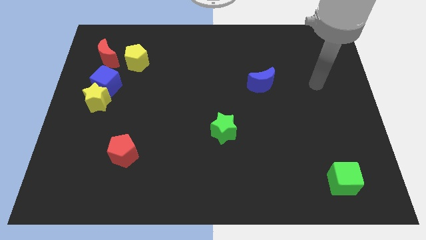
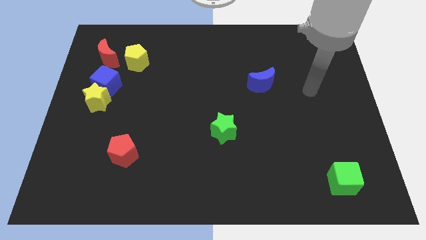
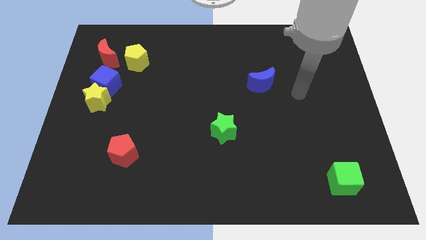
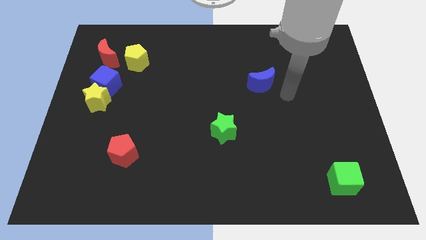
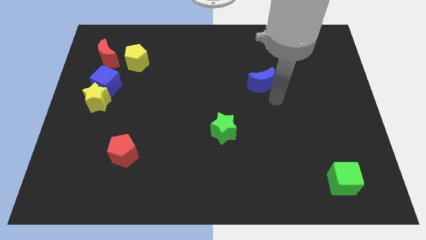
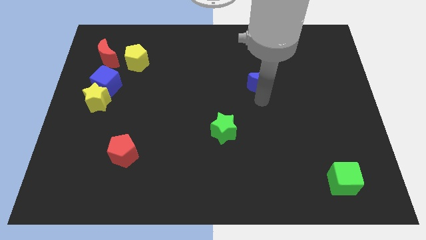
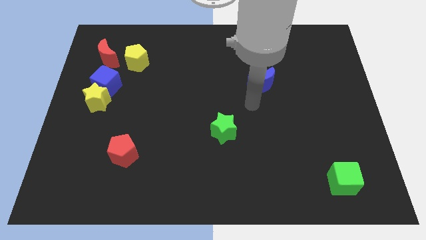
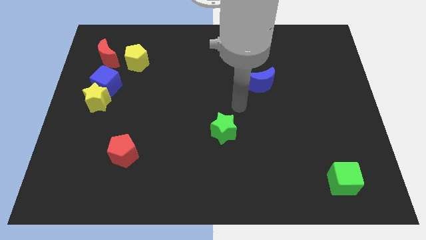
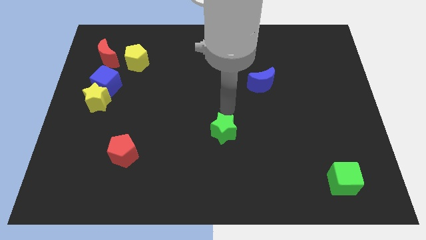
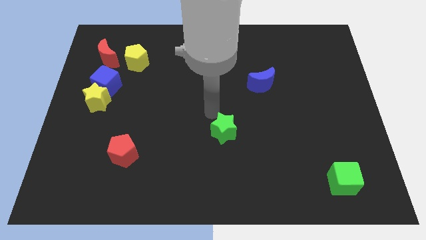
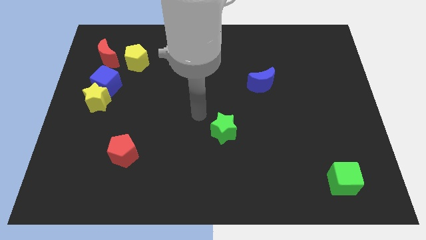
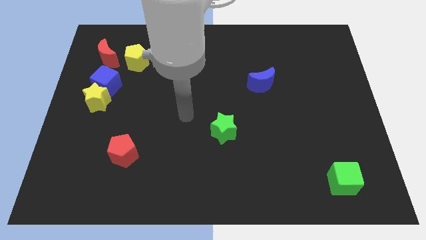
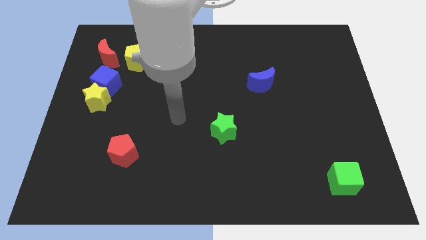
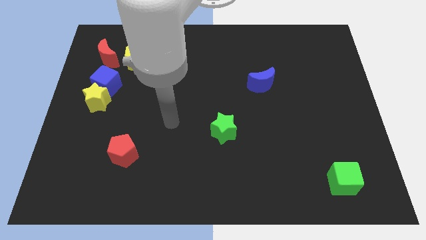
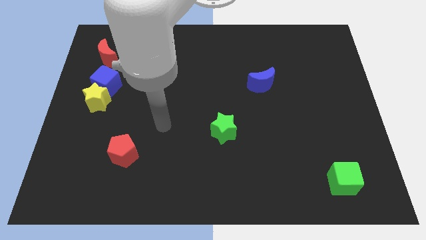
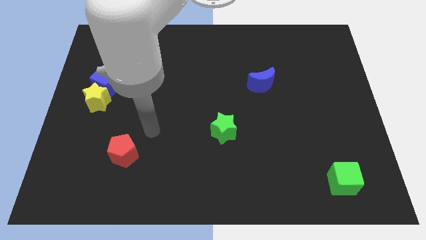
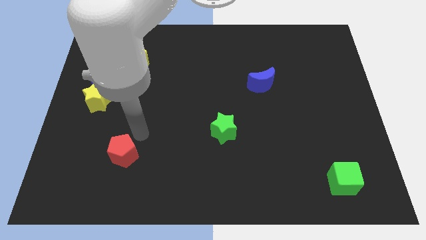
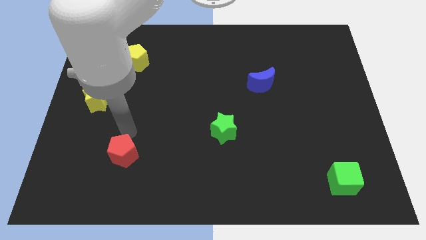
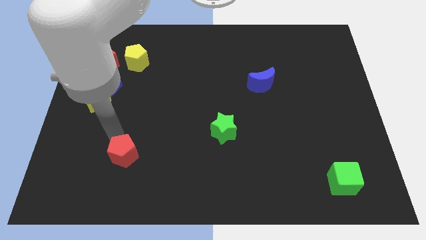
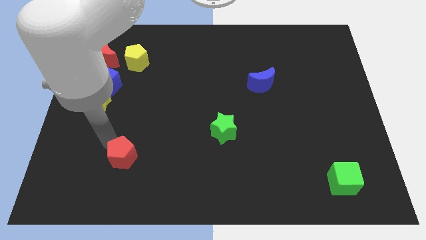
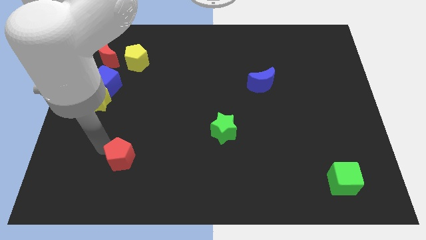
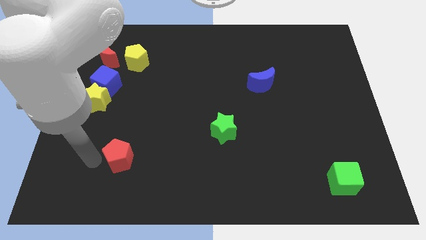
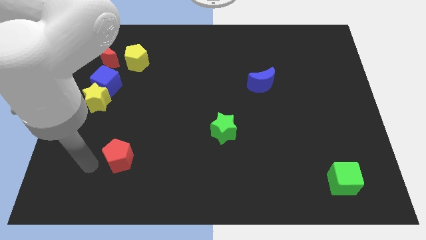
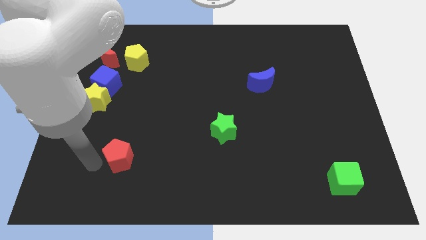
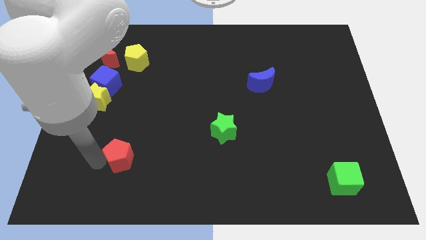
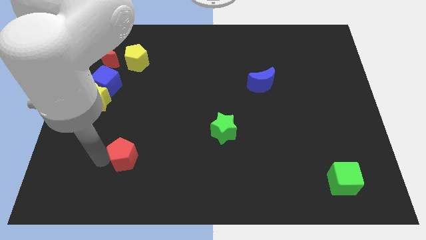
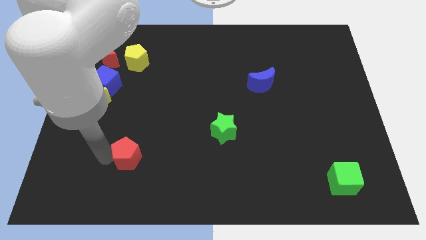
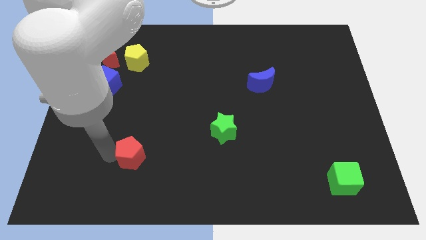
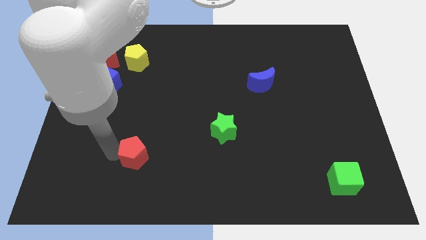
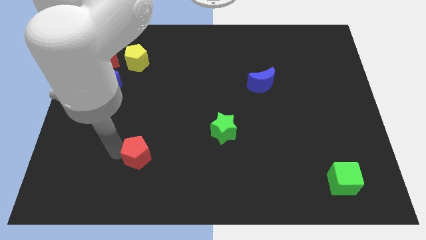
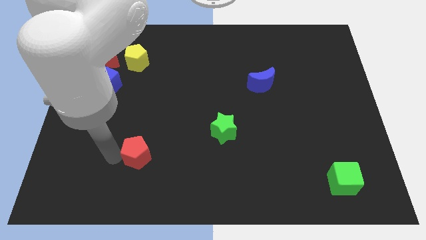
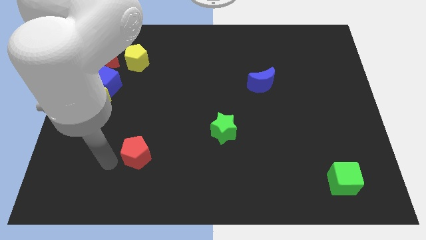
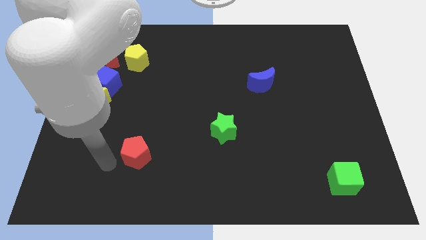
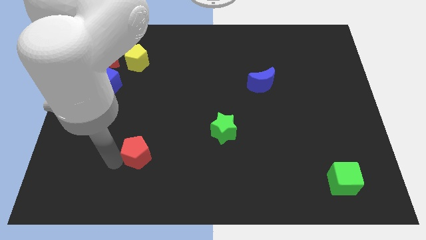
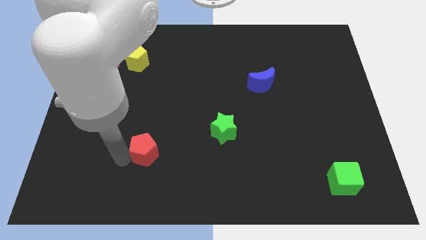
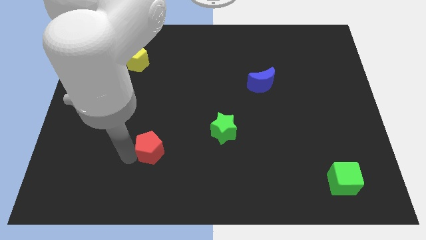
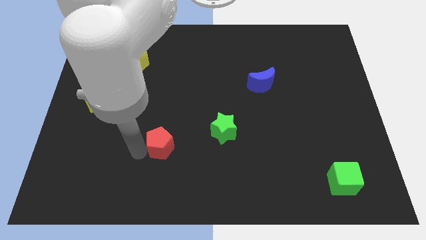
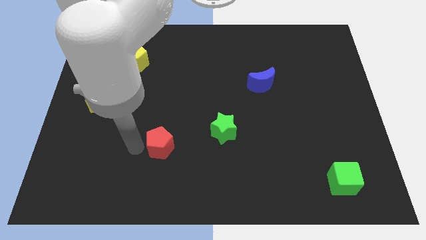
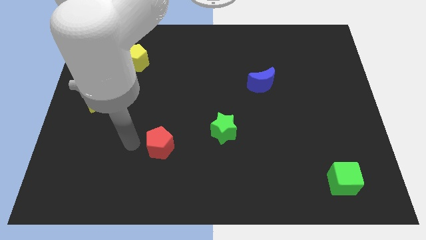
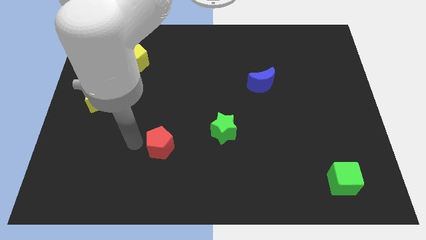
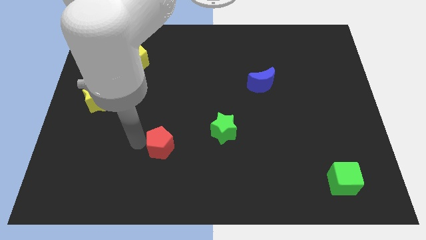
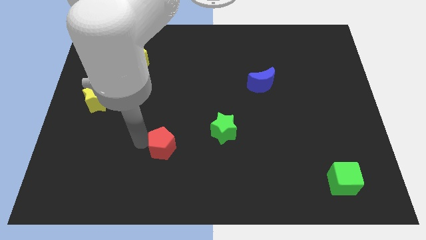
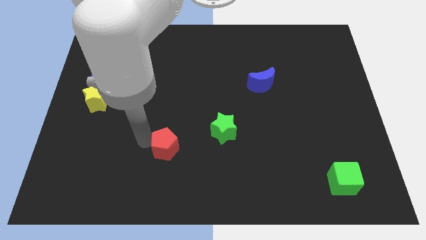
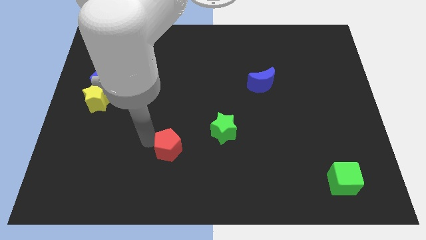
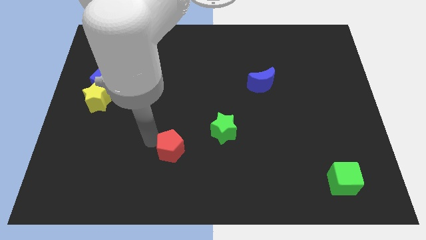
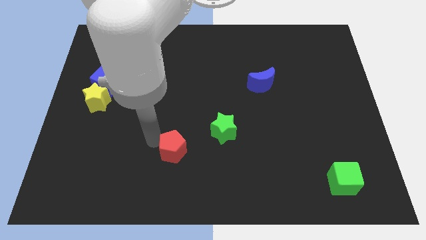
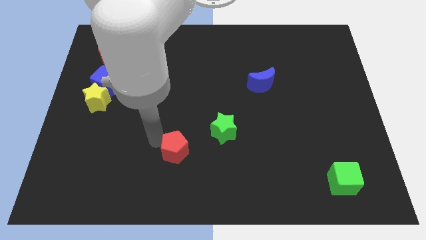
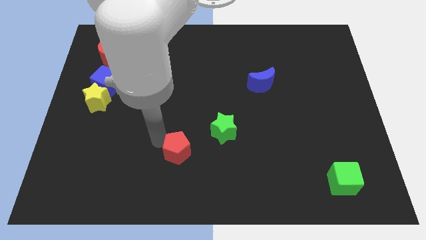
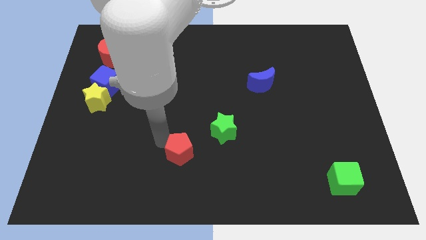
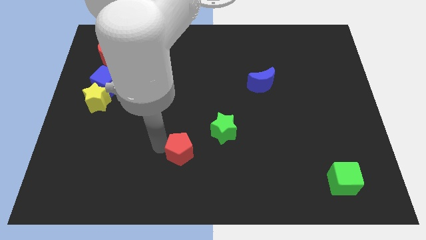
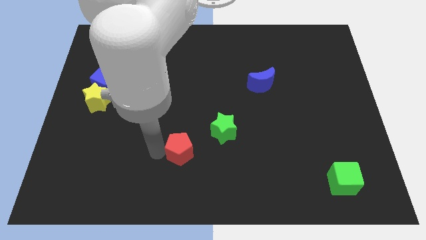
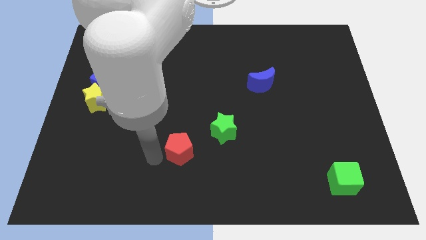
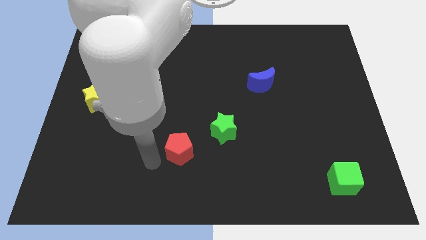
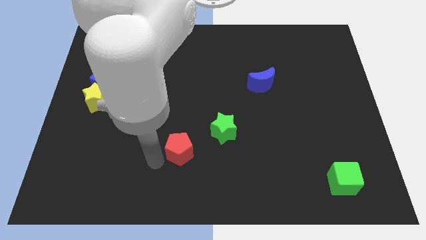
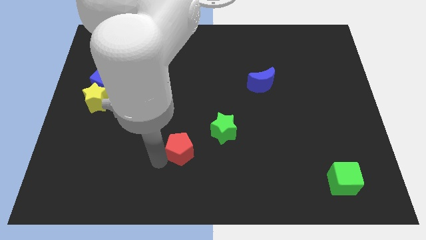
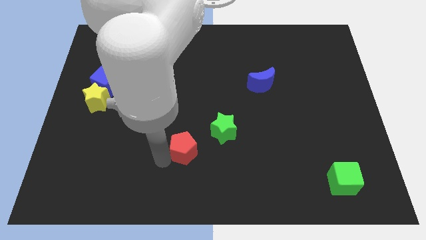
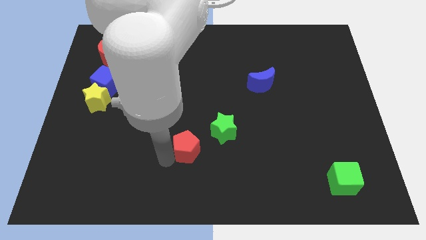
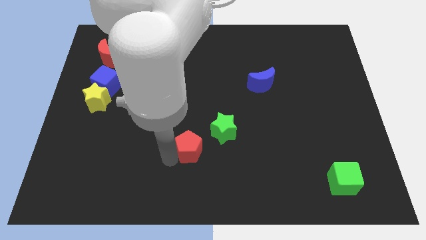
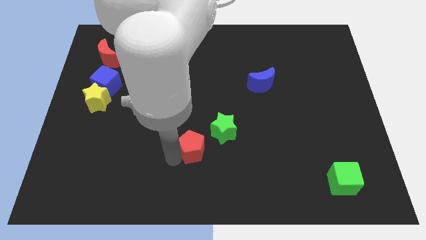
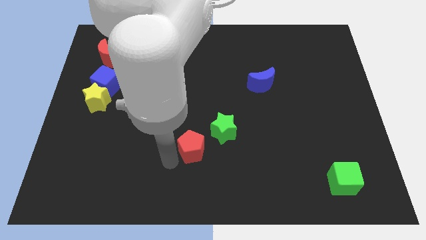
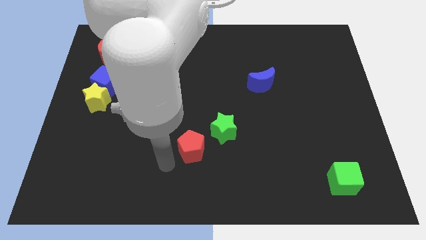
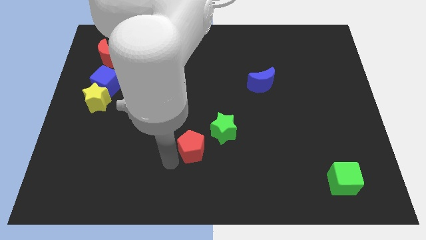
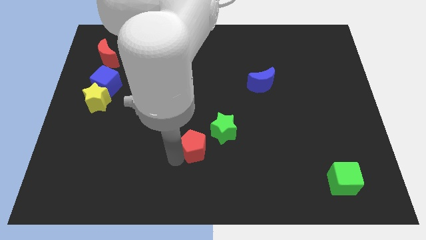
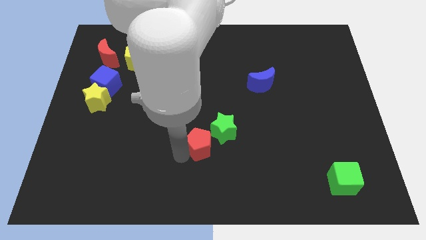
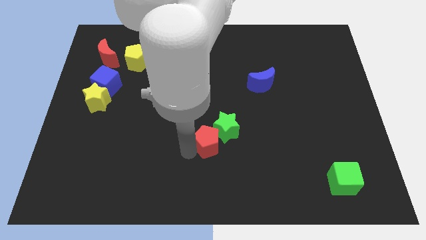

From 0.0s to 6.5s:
slide the red pentagon next to the green star
